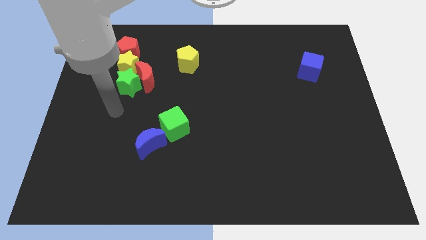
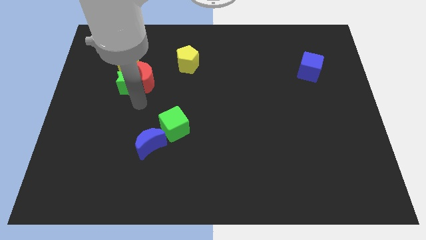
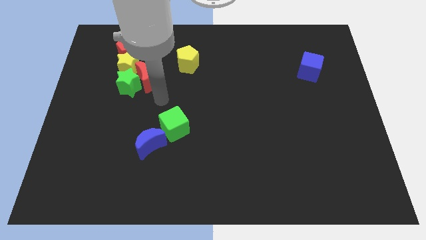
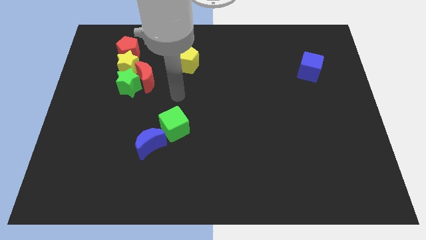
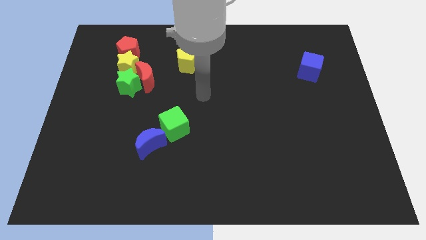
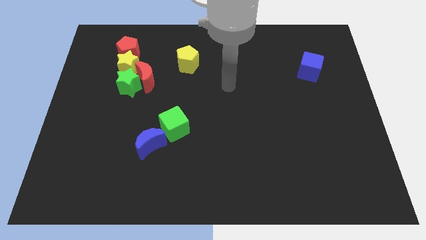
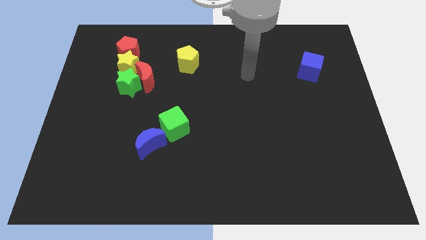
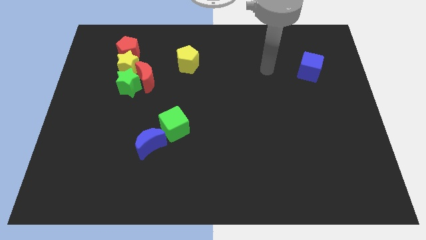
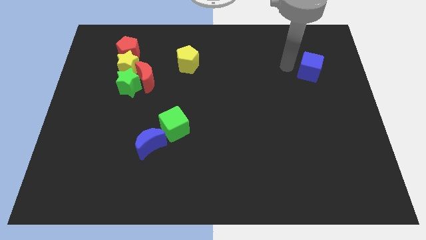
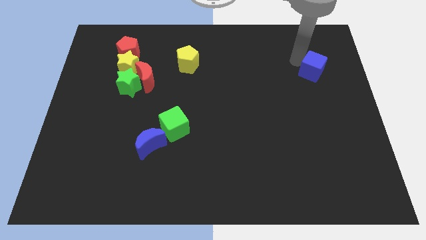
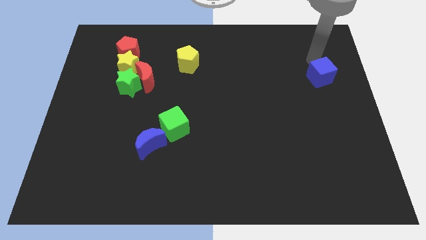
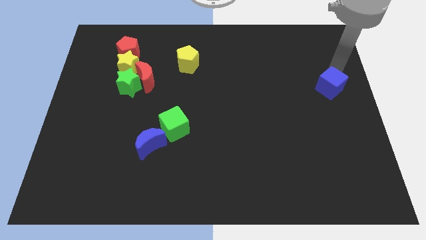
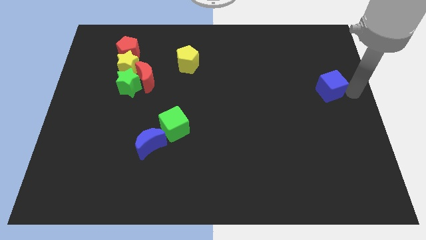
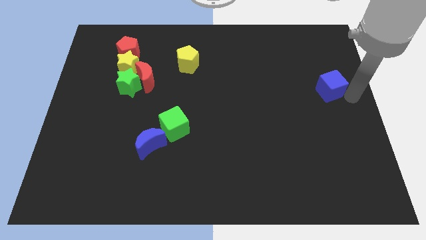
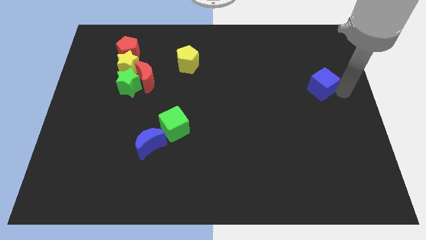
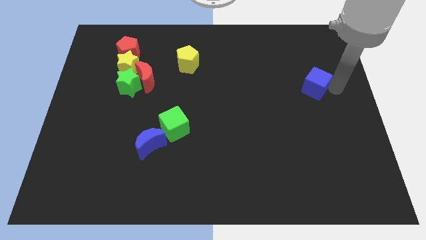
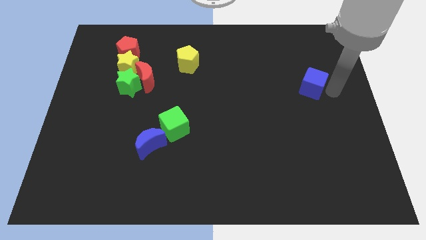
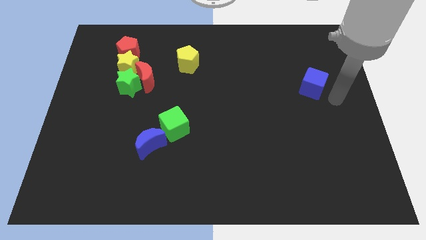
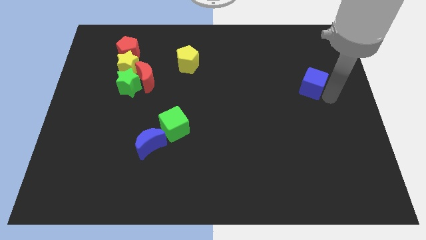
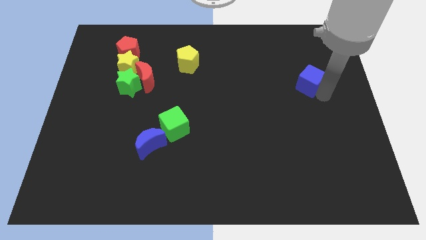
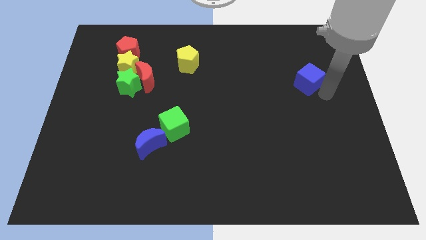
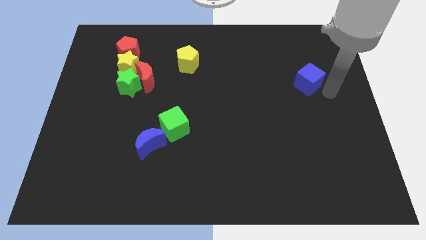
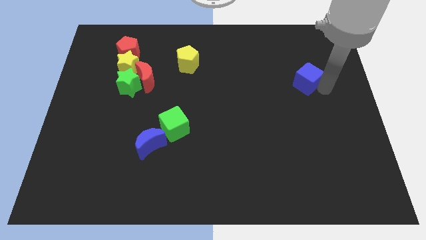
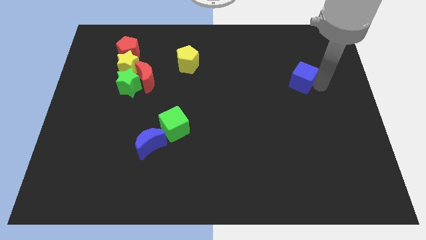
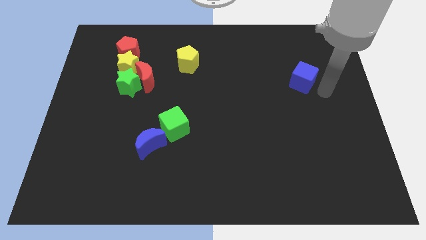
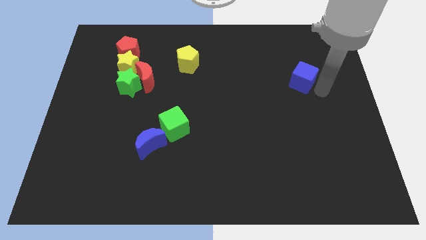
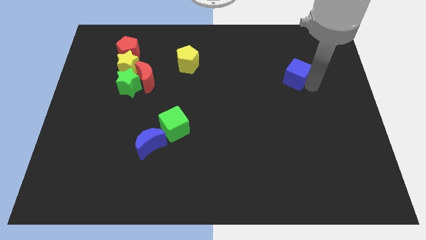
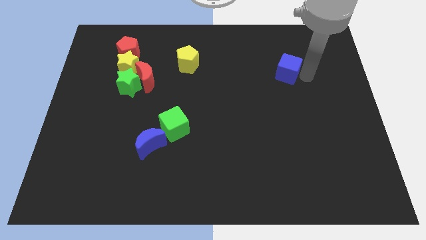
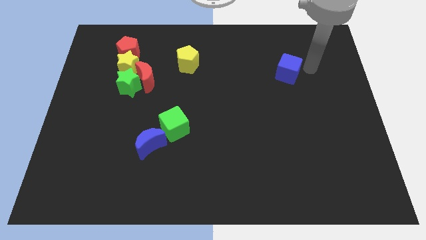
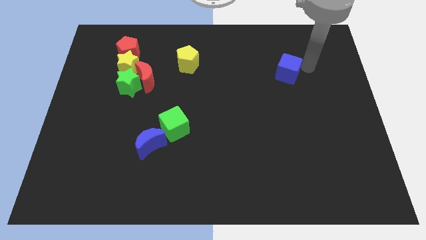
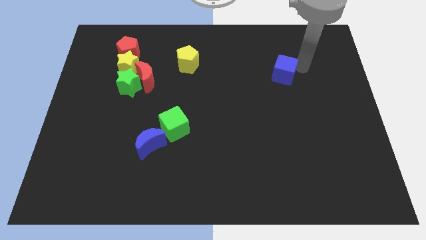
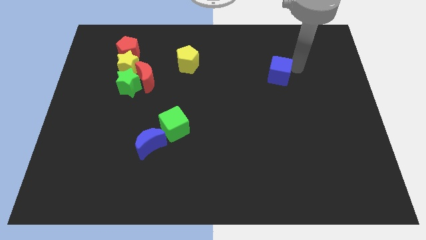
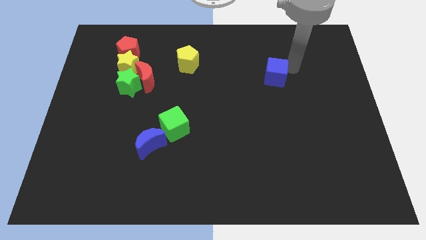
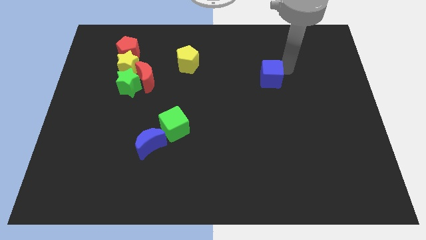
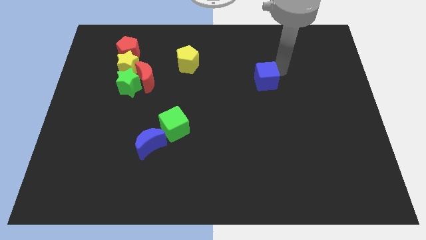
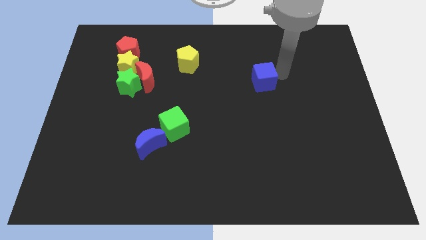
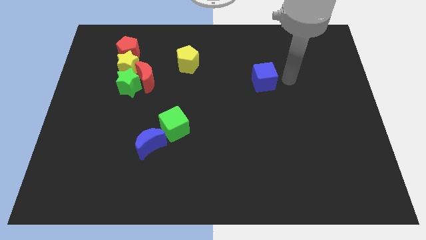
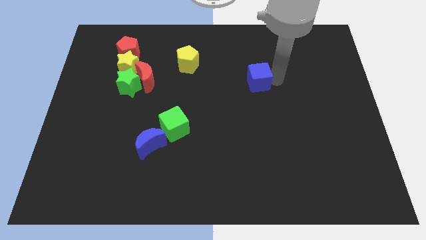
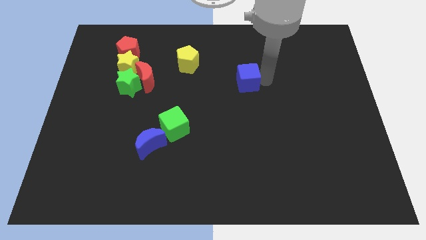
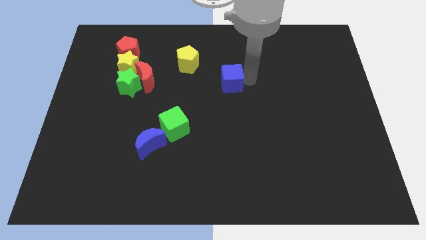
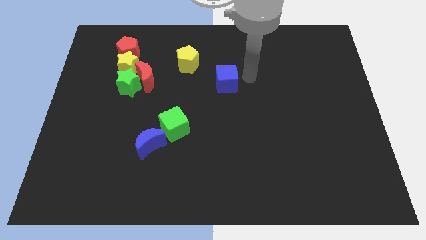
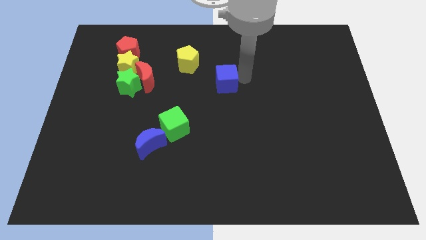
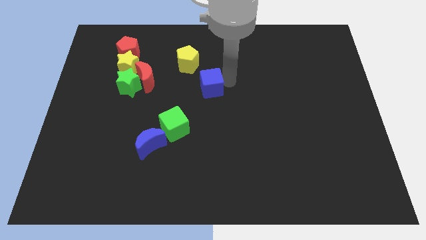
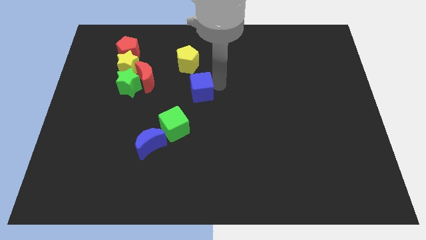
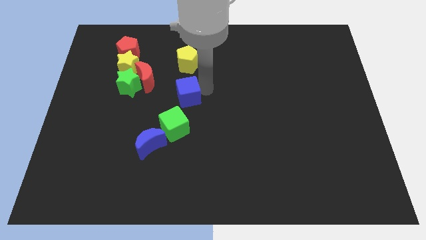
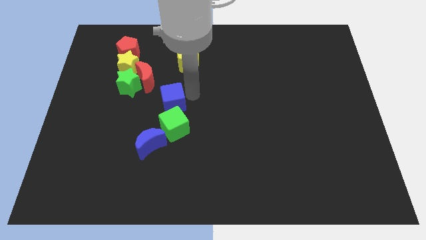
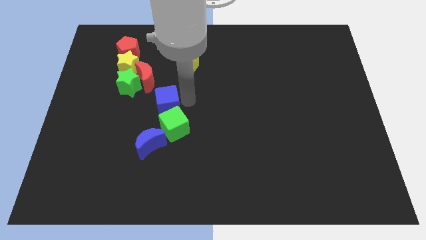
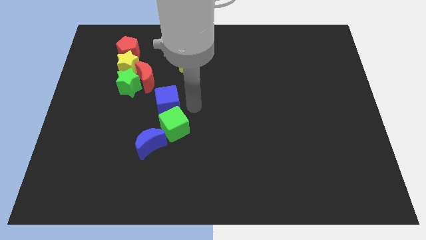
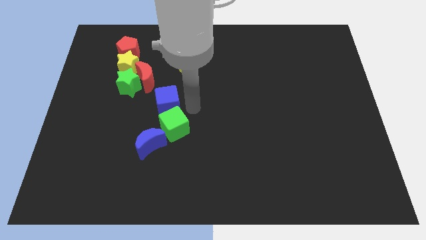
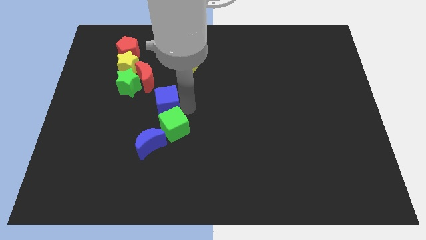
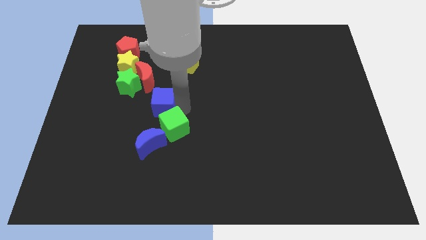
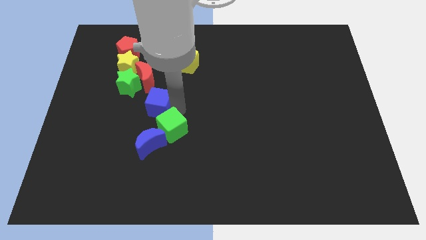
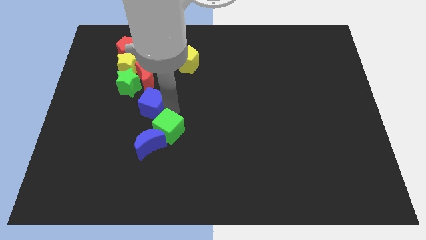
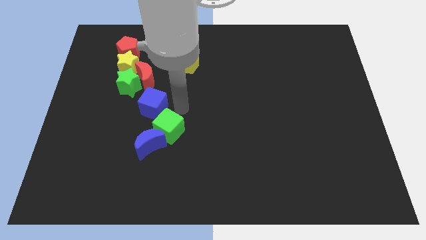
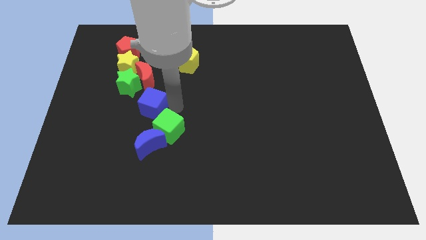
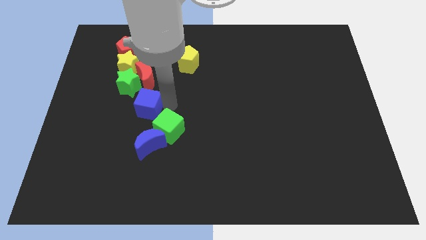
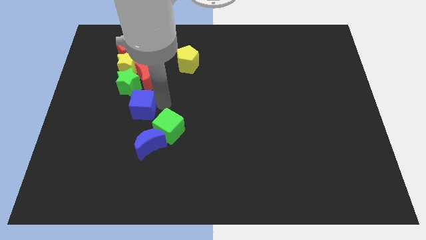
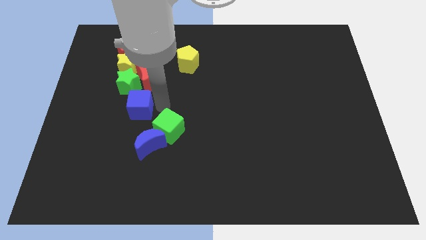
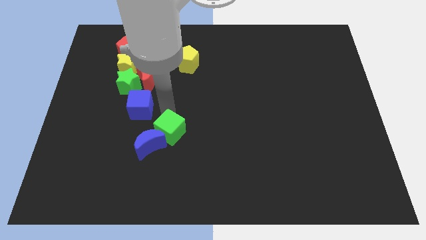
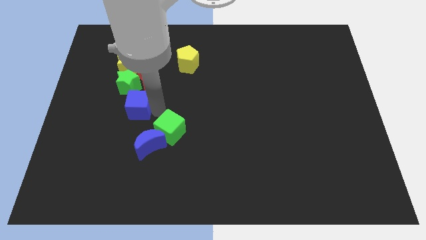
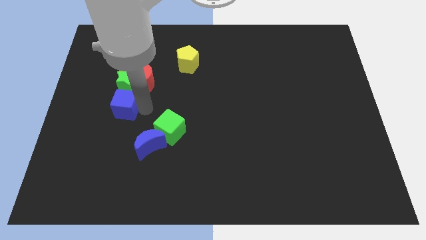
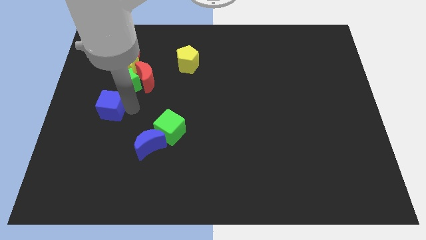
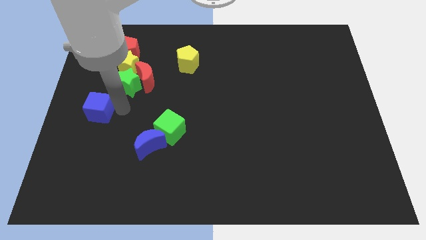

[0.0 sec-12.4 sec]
slide the blue cube to the center left
